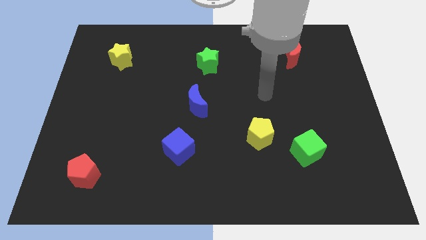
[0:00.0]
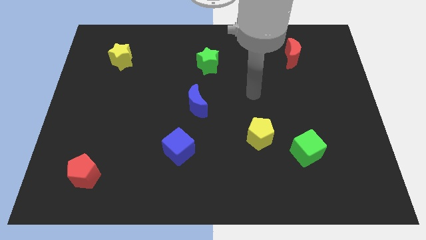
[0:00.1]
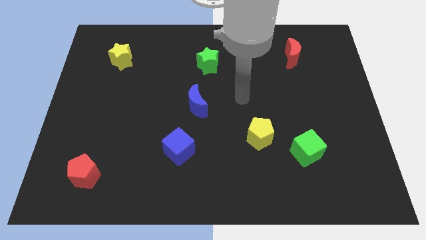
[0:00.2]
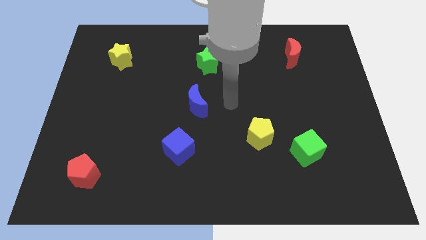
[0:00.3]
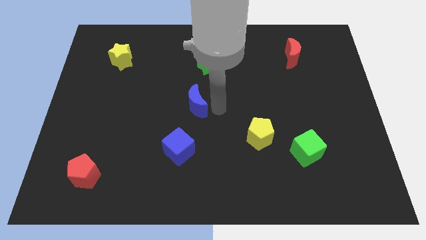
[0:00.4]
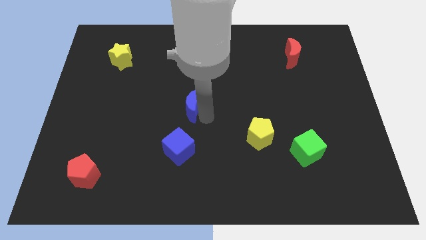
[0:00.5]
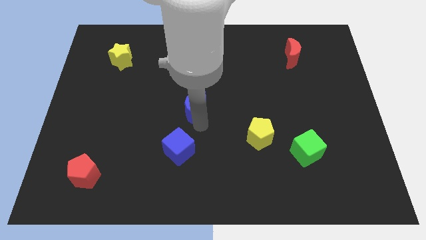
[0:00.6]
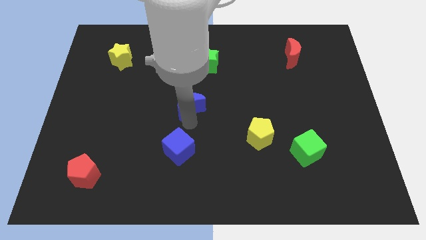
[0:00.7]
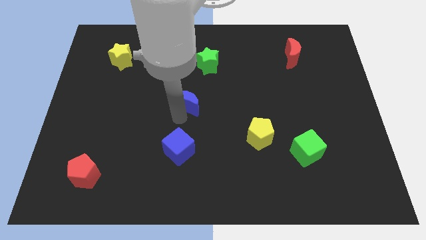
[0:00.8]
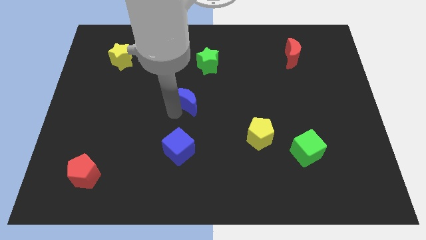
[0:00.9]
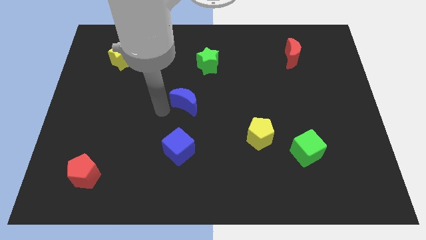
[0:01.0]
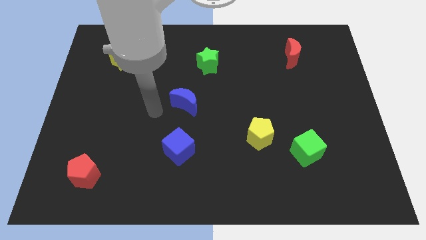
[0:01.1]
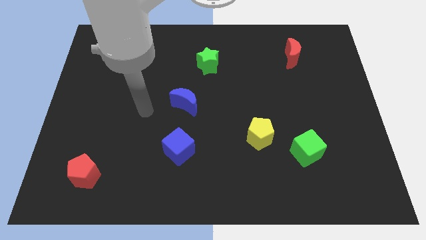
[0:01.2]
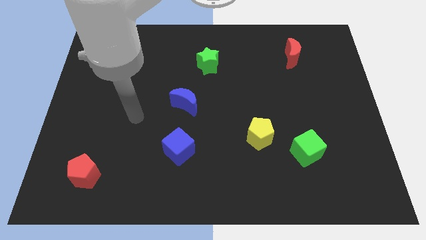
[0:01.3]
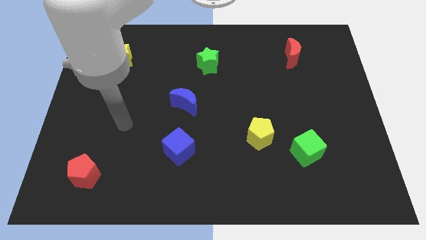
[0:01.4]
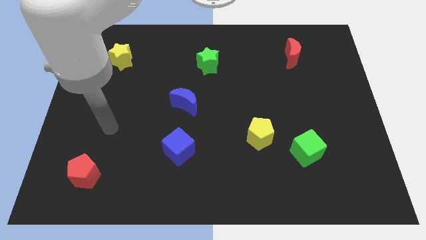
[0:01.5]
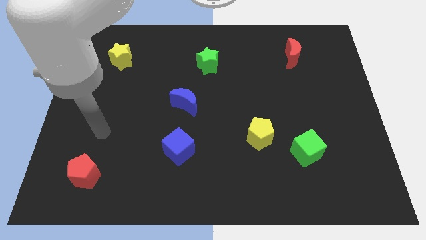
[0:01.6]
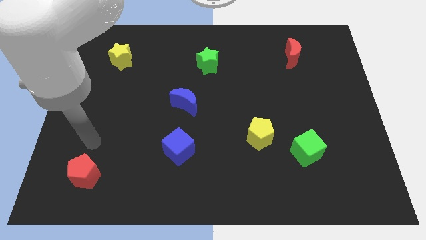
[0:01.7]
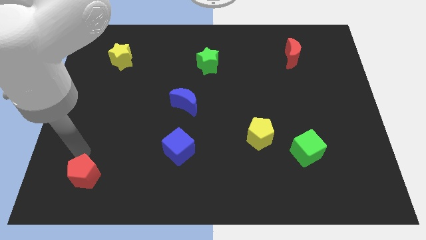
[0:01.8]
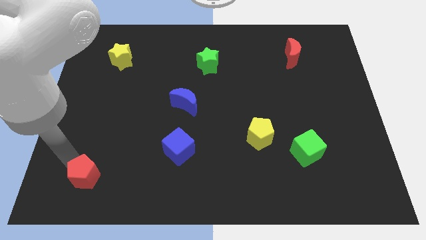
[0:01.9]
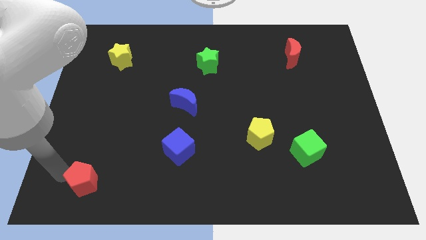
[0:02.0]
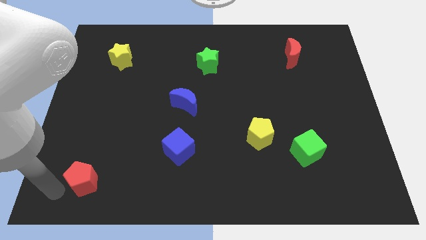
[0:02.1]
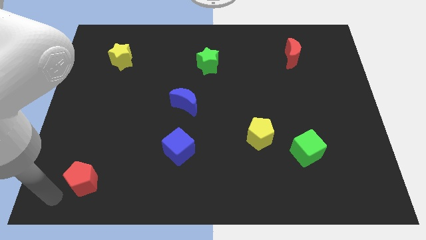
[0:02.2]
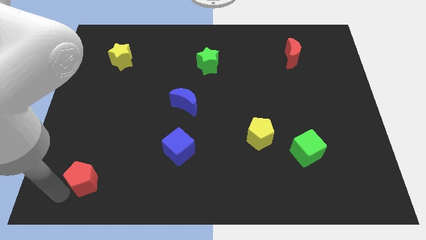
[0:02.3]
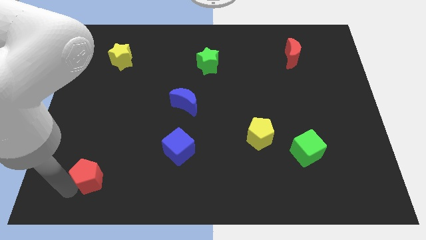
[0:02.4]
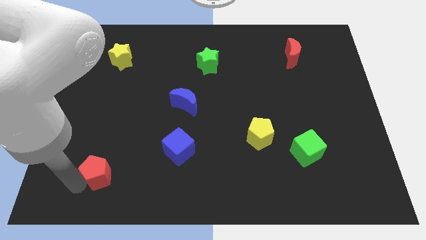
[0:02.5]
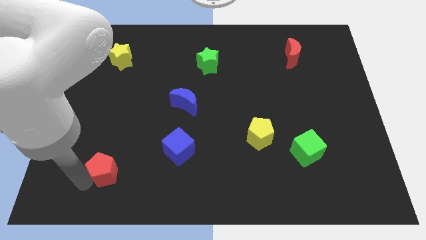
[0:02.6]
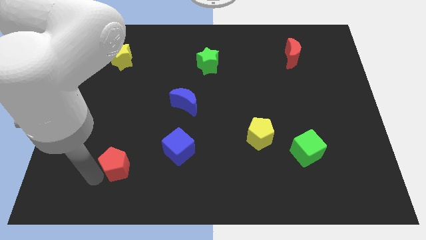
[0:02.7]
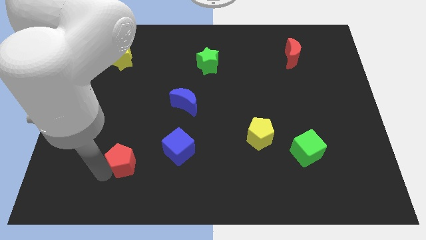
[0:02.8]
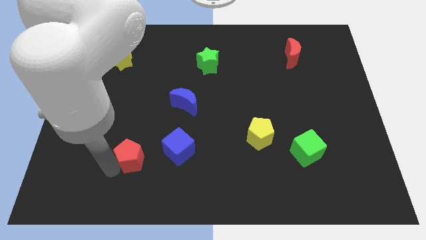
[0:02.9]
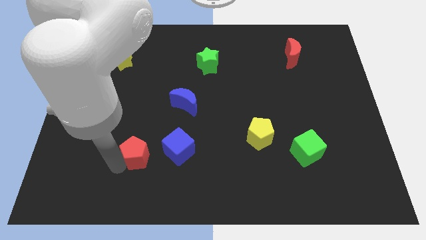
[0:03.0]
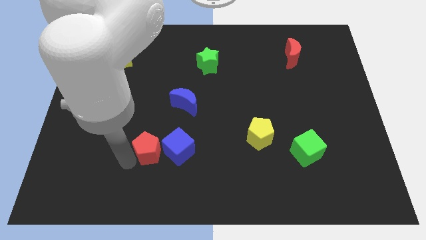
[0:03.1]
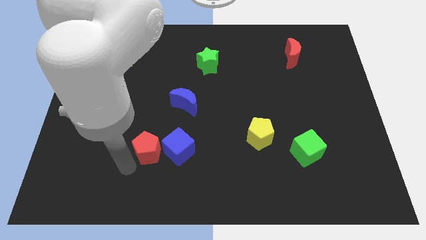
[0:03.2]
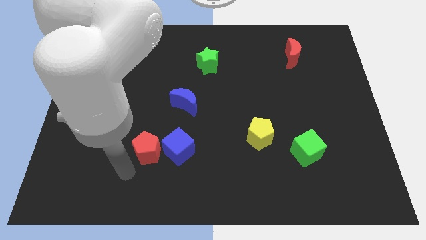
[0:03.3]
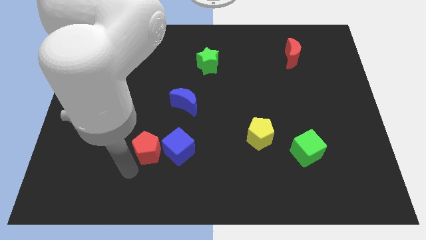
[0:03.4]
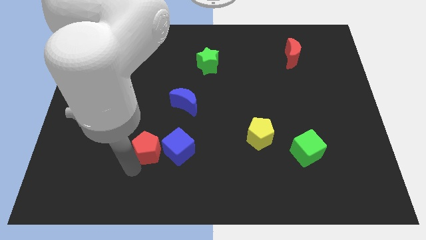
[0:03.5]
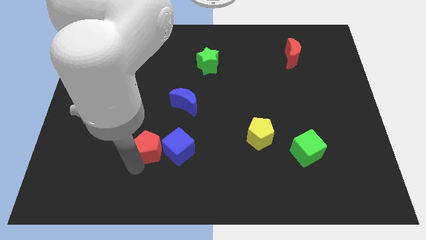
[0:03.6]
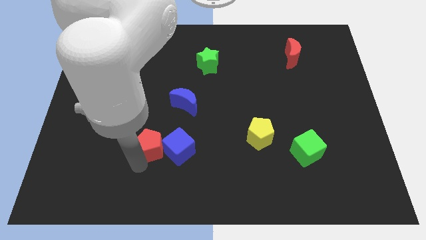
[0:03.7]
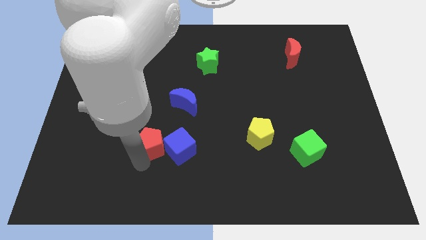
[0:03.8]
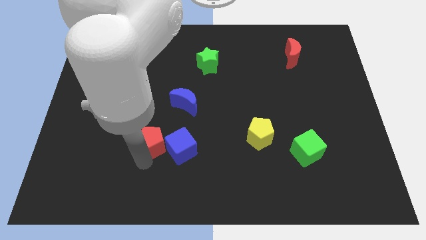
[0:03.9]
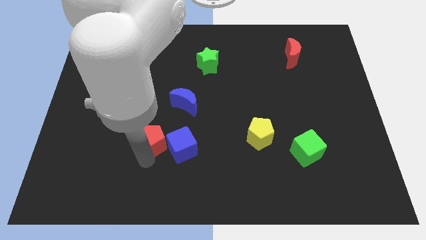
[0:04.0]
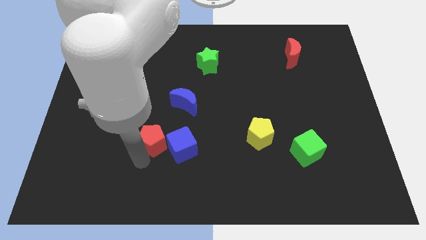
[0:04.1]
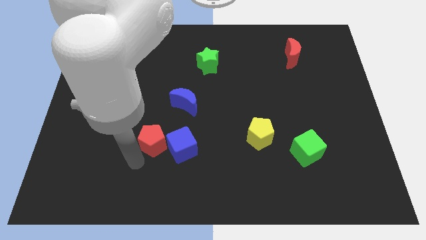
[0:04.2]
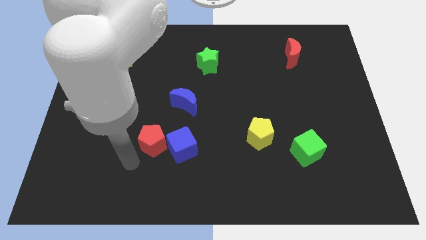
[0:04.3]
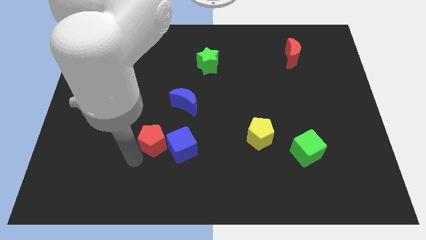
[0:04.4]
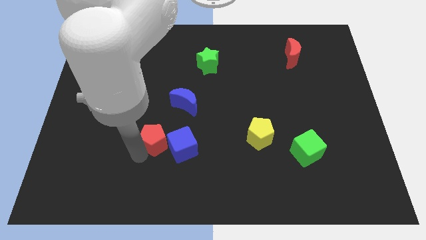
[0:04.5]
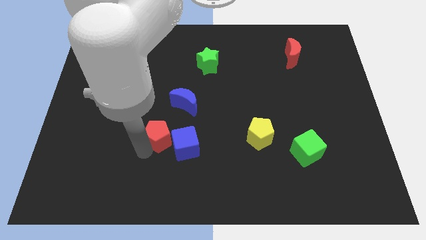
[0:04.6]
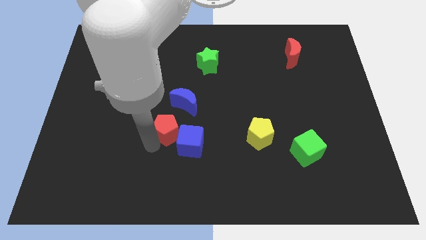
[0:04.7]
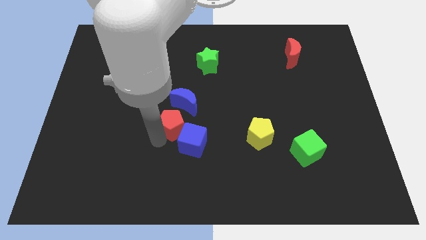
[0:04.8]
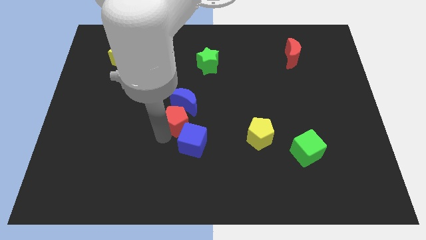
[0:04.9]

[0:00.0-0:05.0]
push the red pentagon towards the blue moon

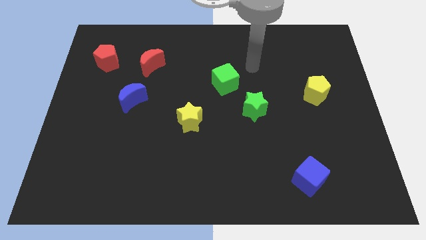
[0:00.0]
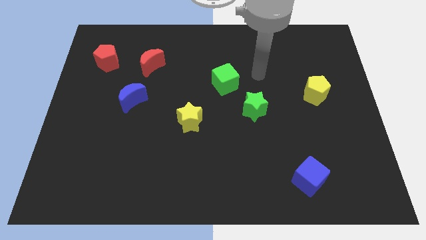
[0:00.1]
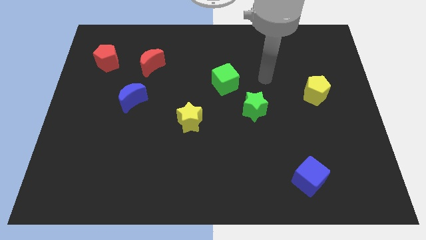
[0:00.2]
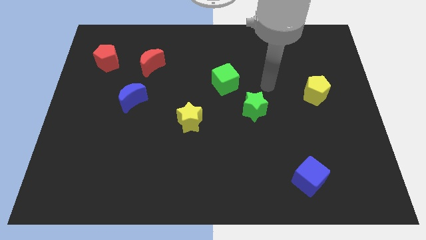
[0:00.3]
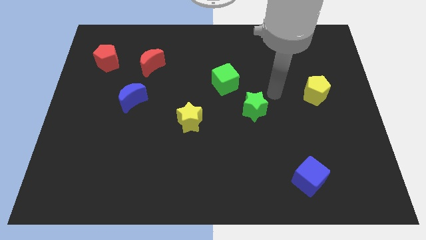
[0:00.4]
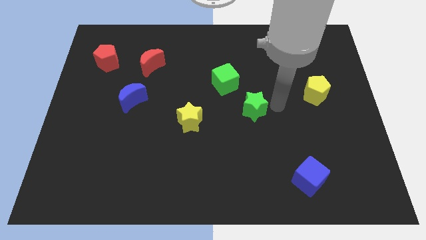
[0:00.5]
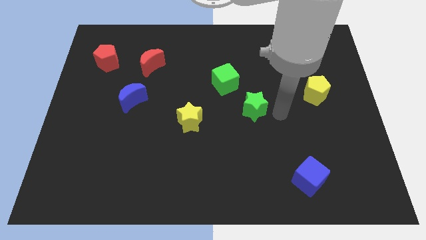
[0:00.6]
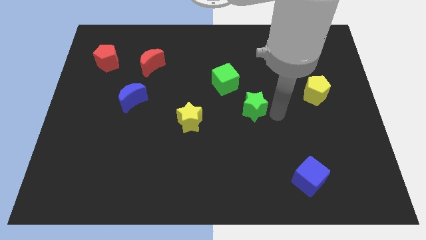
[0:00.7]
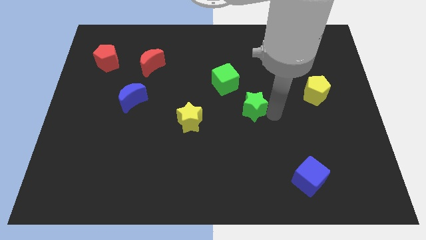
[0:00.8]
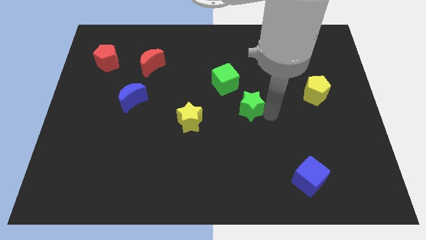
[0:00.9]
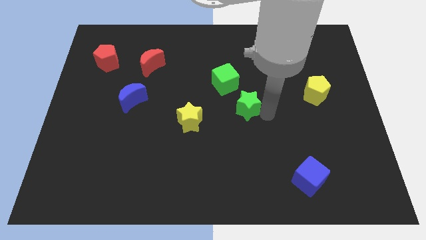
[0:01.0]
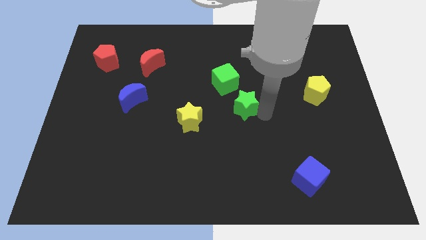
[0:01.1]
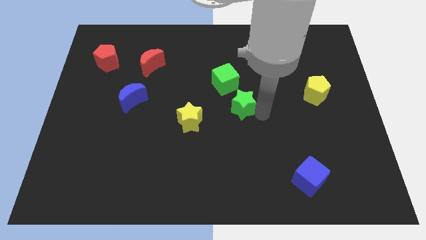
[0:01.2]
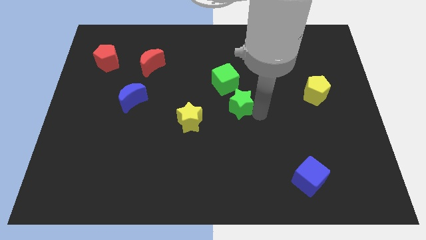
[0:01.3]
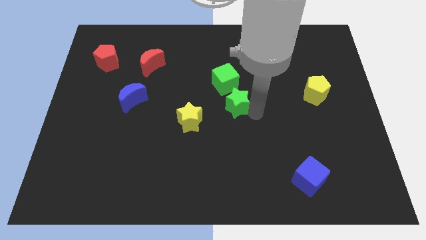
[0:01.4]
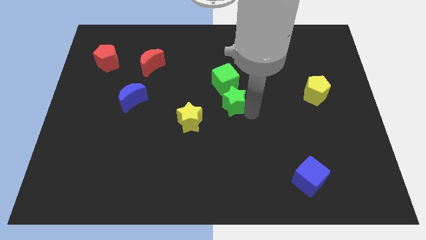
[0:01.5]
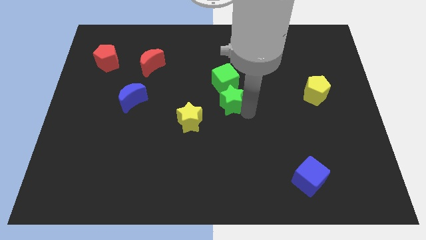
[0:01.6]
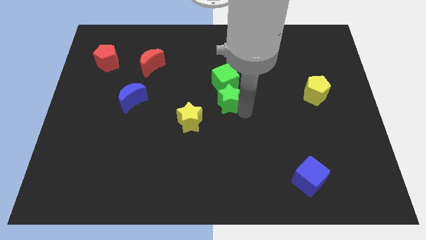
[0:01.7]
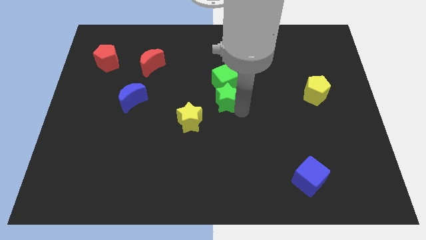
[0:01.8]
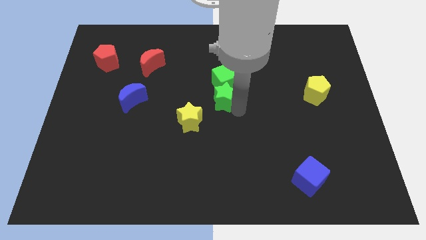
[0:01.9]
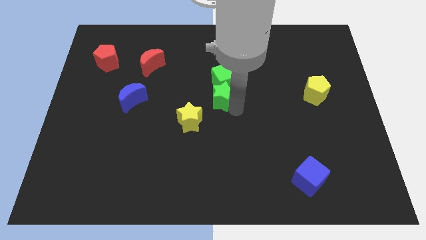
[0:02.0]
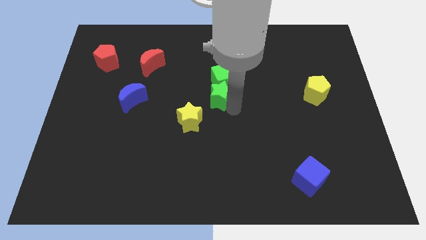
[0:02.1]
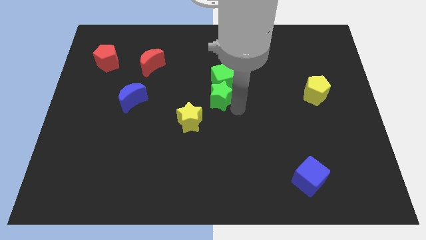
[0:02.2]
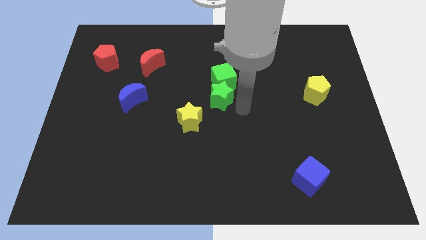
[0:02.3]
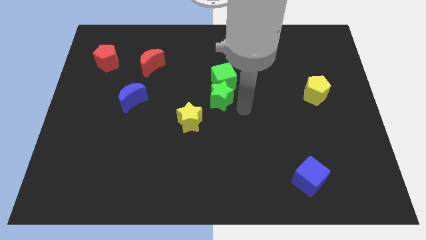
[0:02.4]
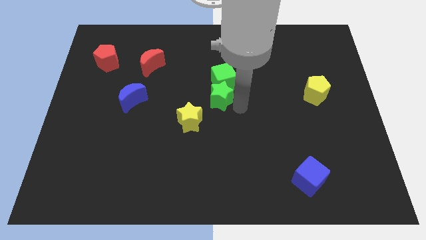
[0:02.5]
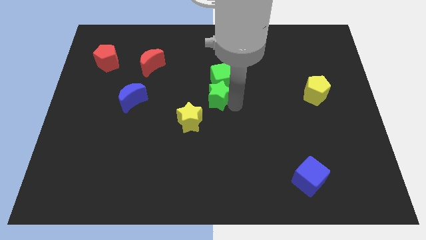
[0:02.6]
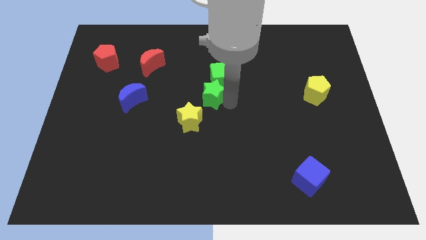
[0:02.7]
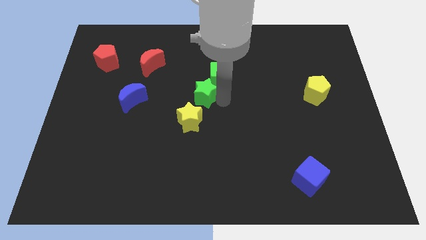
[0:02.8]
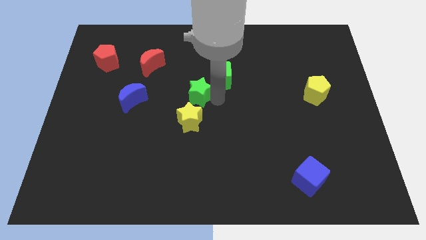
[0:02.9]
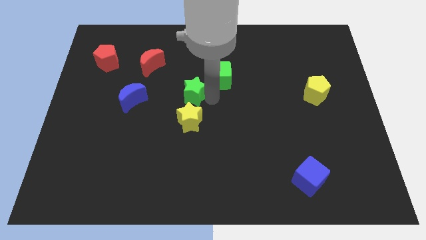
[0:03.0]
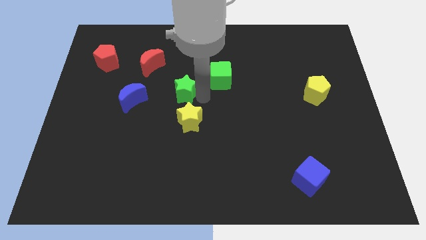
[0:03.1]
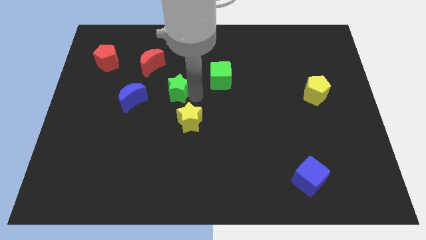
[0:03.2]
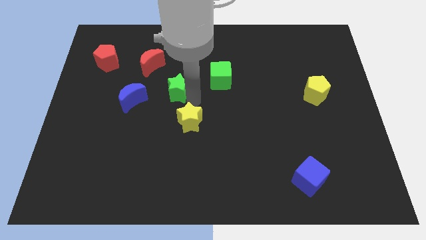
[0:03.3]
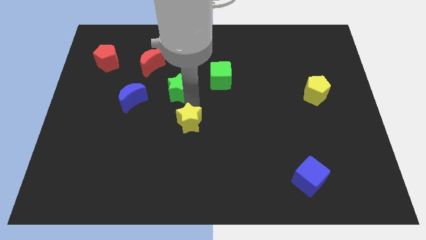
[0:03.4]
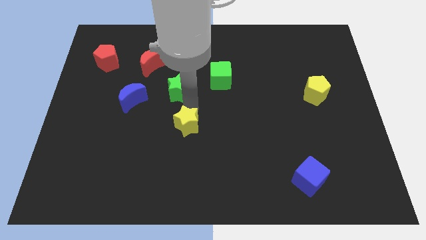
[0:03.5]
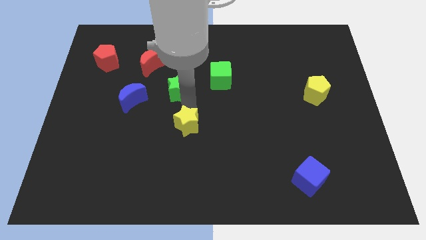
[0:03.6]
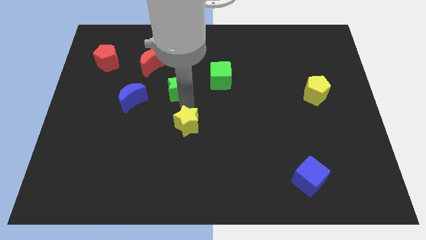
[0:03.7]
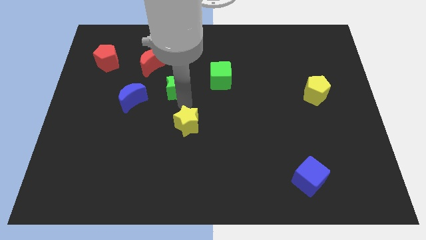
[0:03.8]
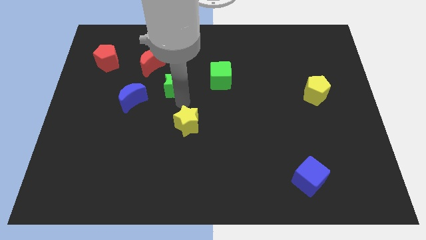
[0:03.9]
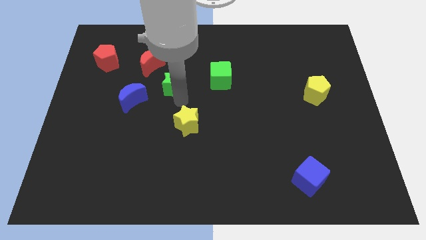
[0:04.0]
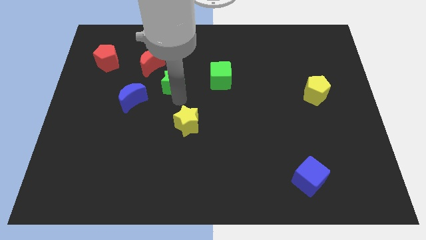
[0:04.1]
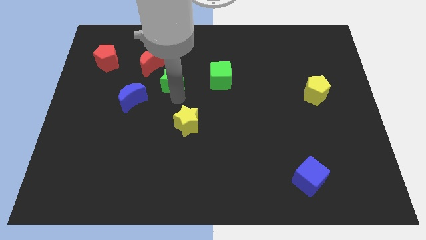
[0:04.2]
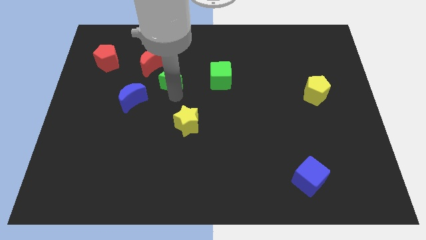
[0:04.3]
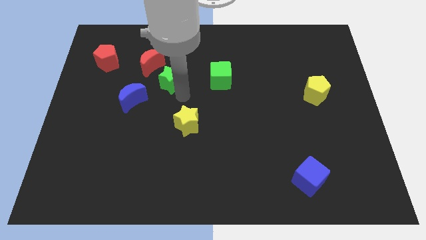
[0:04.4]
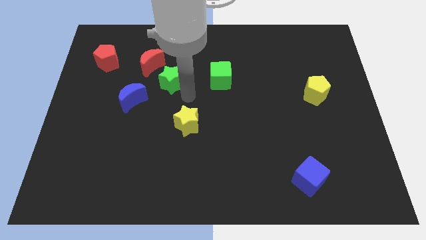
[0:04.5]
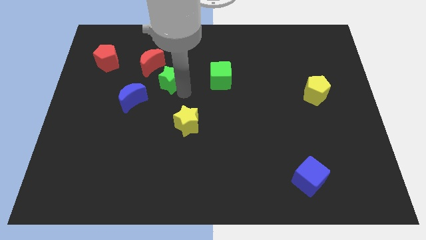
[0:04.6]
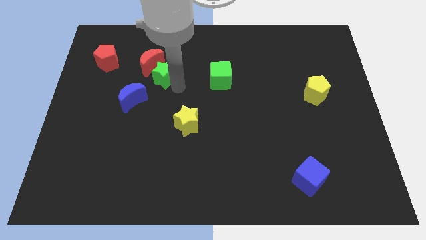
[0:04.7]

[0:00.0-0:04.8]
slide the green star to the red moon
